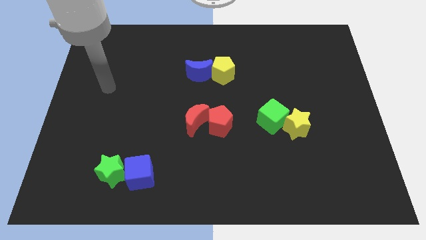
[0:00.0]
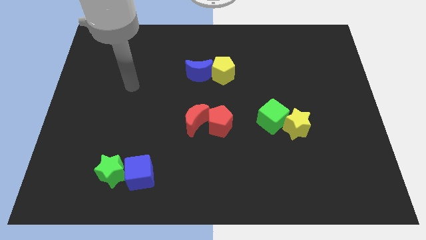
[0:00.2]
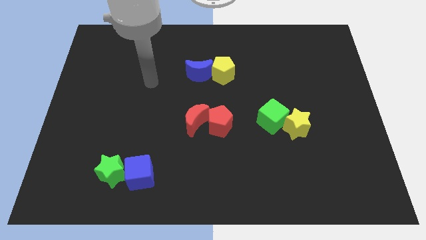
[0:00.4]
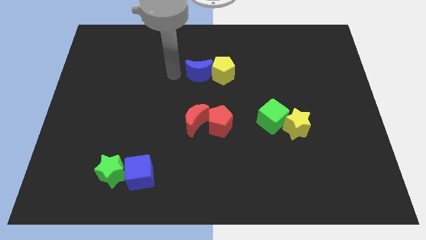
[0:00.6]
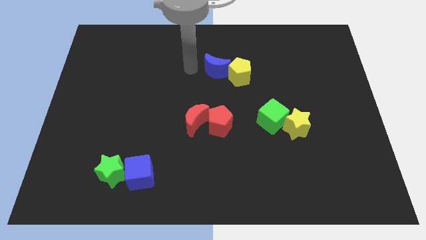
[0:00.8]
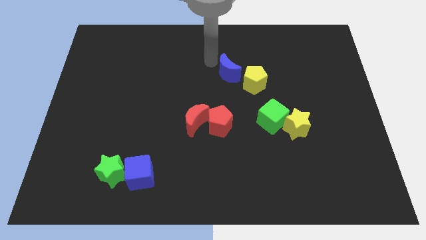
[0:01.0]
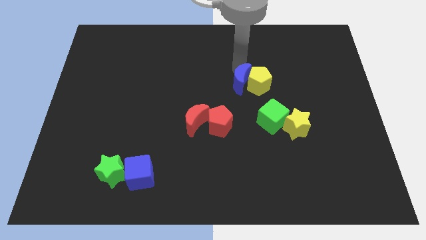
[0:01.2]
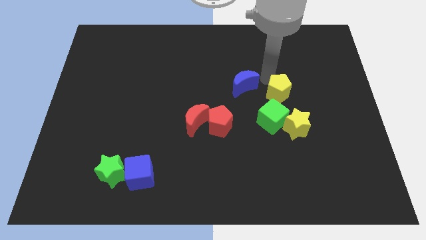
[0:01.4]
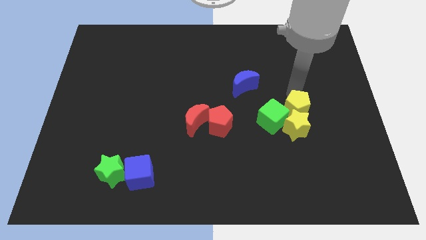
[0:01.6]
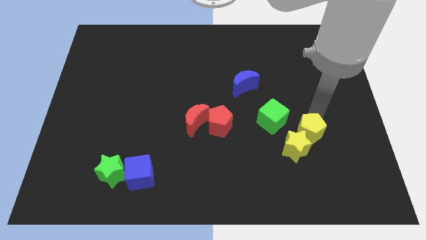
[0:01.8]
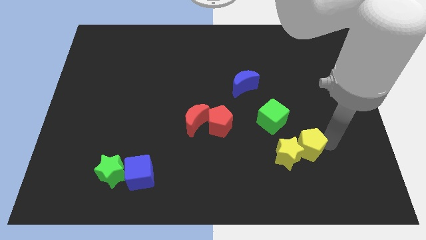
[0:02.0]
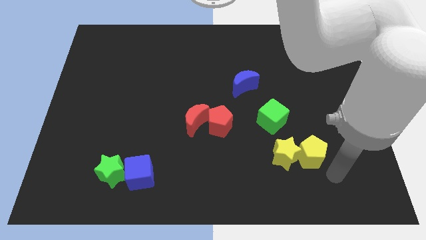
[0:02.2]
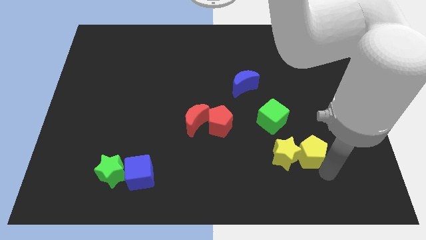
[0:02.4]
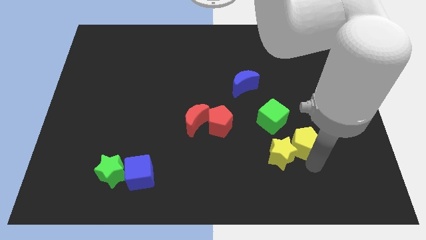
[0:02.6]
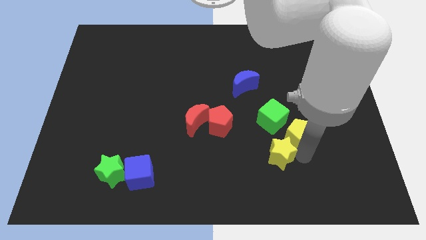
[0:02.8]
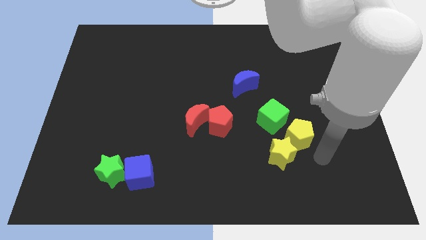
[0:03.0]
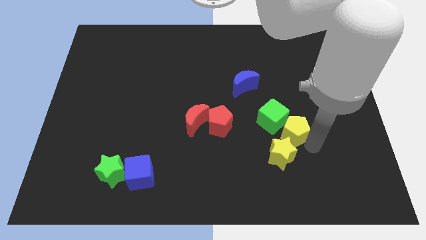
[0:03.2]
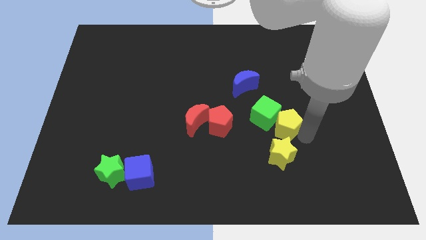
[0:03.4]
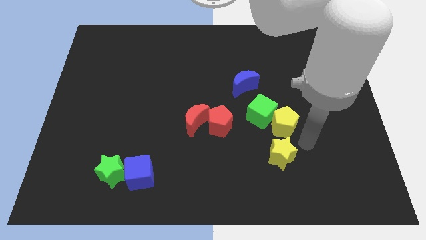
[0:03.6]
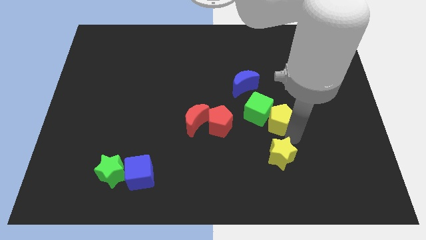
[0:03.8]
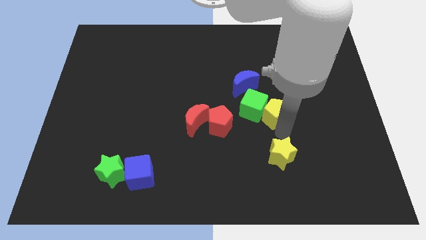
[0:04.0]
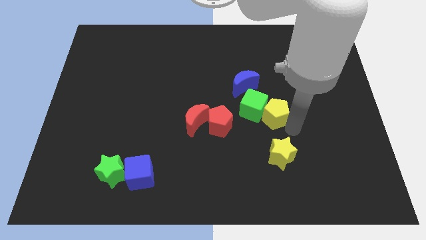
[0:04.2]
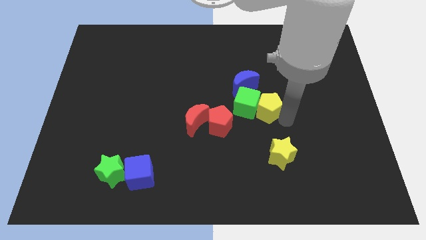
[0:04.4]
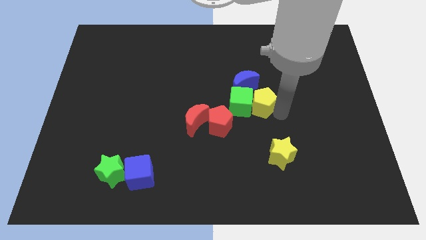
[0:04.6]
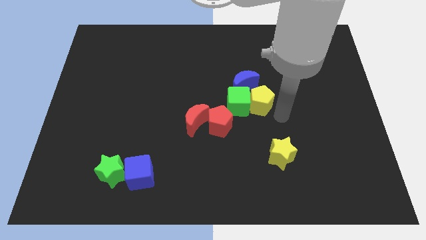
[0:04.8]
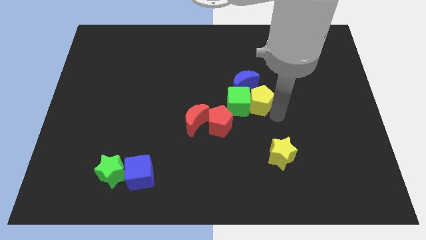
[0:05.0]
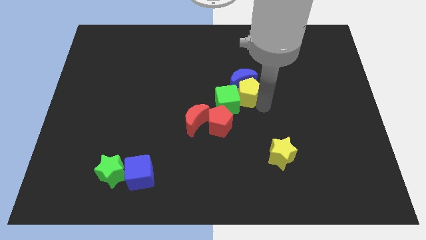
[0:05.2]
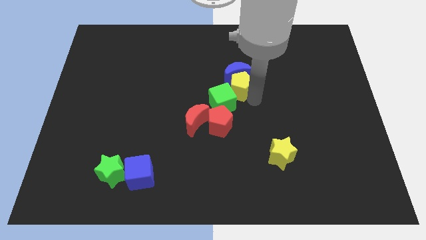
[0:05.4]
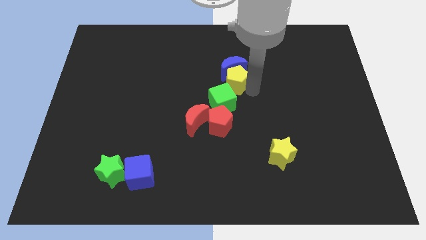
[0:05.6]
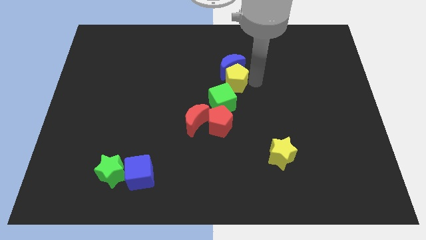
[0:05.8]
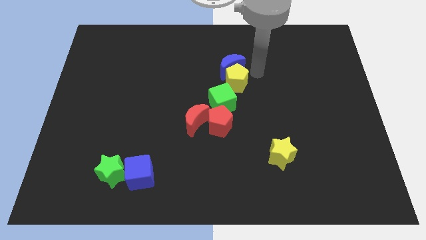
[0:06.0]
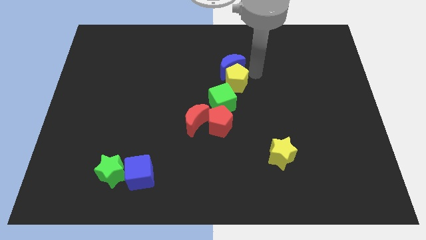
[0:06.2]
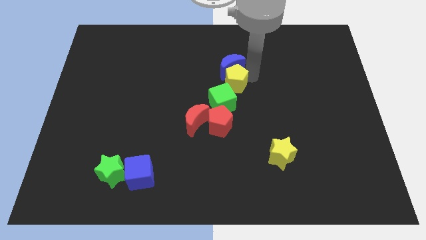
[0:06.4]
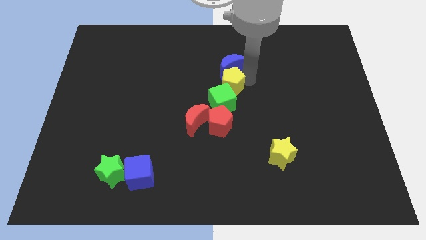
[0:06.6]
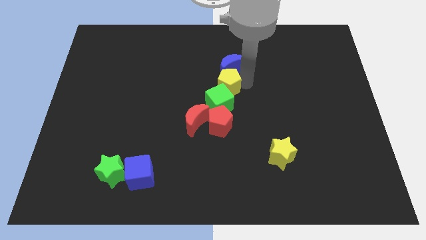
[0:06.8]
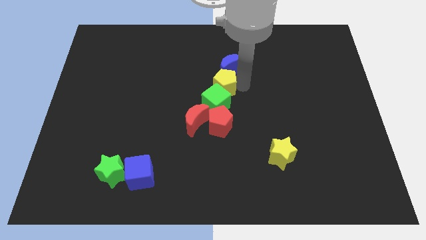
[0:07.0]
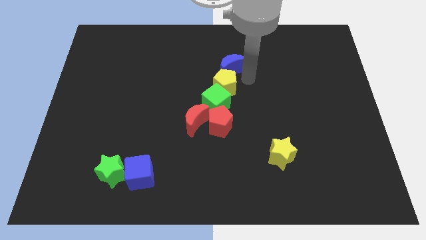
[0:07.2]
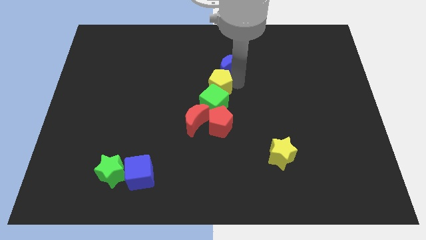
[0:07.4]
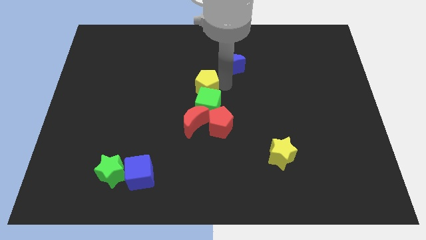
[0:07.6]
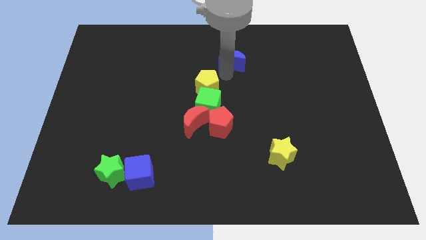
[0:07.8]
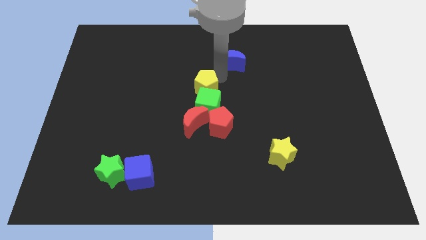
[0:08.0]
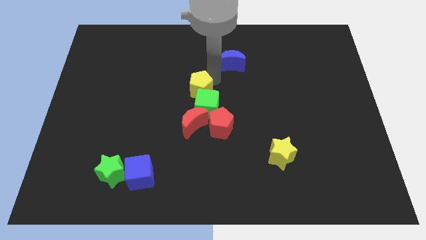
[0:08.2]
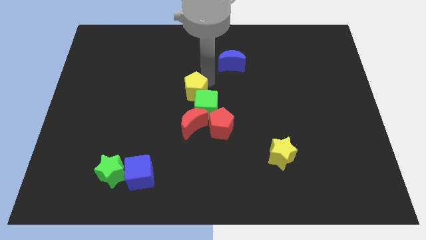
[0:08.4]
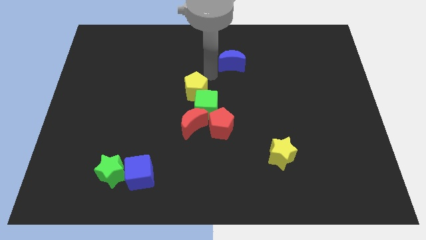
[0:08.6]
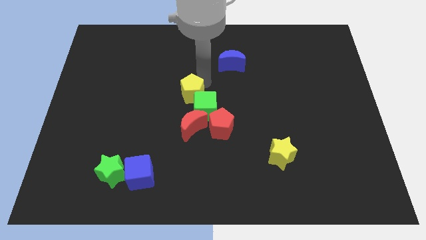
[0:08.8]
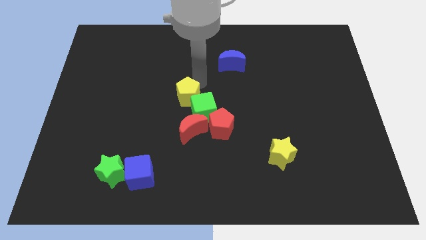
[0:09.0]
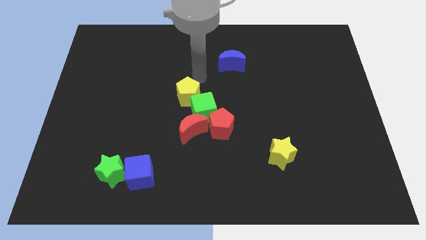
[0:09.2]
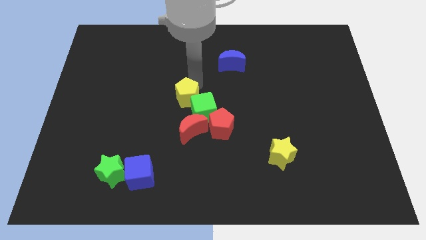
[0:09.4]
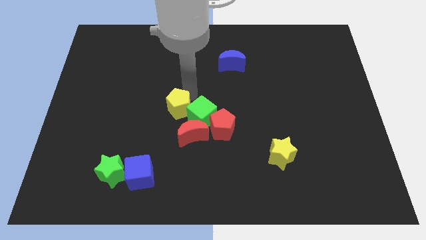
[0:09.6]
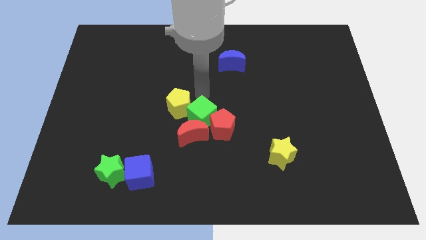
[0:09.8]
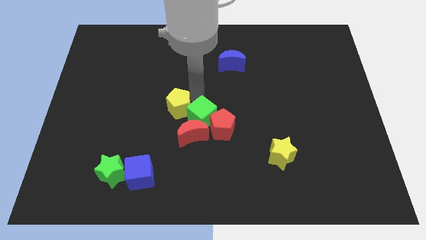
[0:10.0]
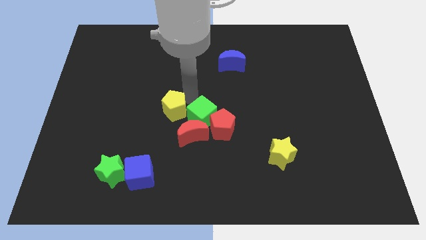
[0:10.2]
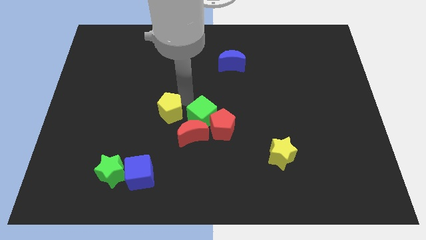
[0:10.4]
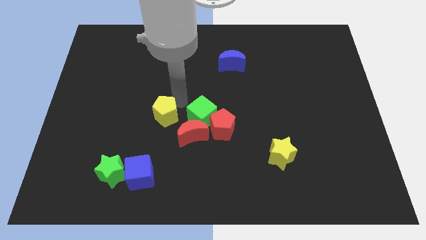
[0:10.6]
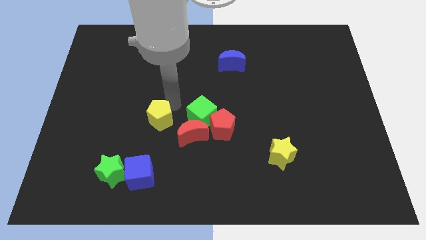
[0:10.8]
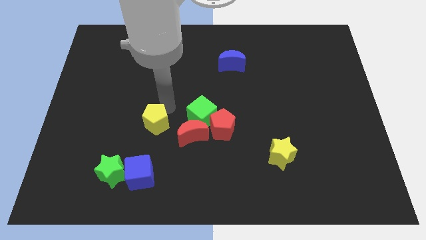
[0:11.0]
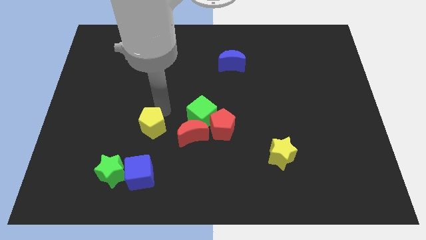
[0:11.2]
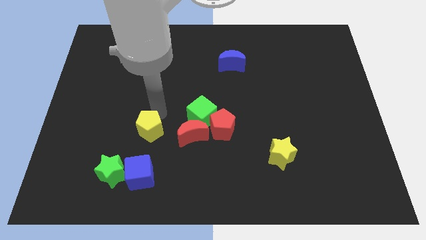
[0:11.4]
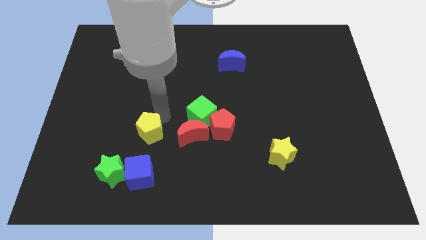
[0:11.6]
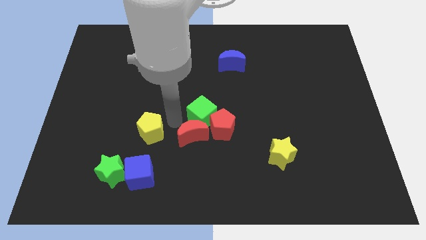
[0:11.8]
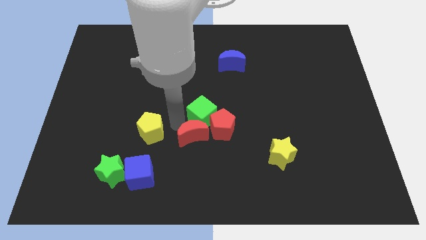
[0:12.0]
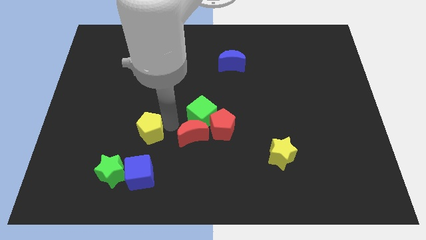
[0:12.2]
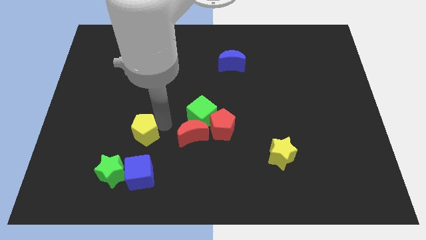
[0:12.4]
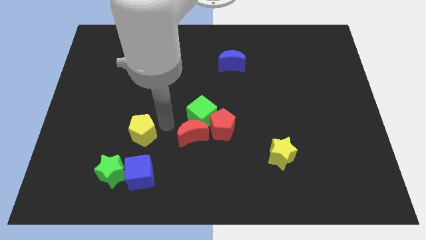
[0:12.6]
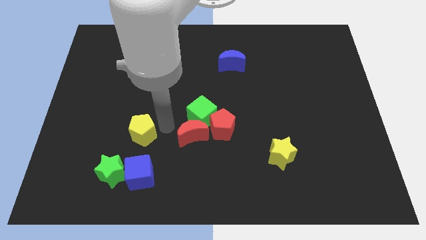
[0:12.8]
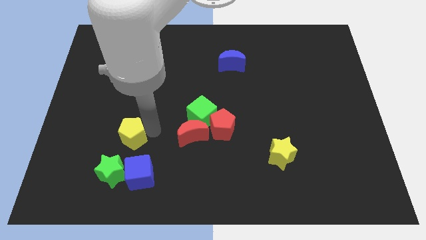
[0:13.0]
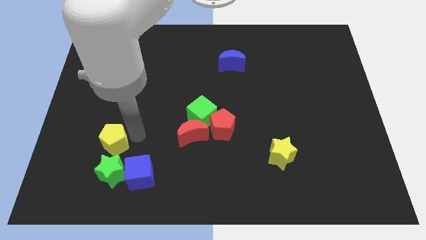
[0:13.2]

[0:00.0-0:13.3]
move the yellow pentagon diagonally up and to the left of the green star

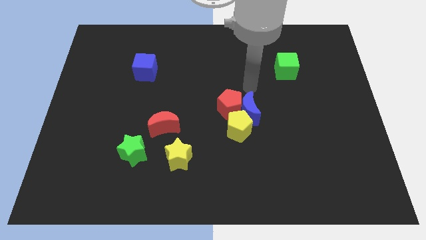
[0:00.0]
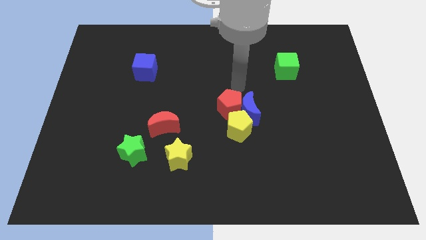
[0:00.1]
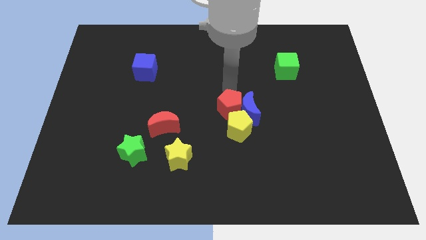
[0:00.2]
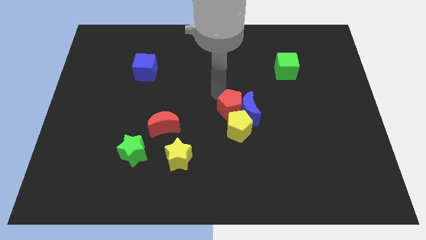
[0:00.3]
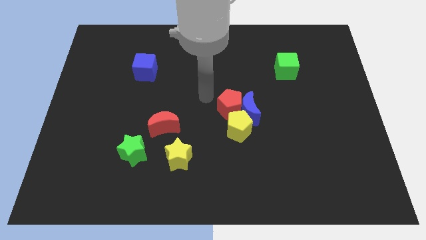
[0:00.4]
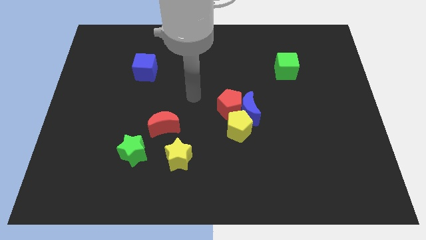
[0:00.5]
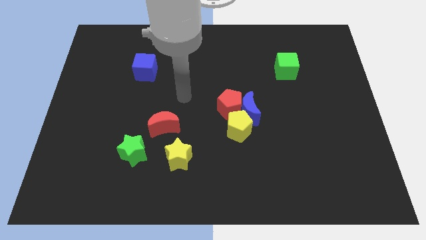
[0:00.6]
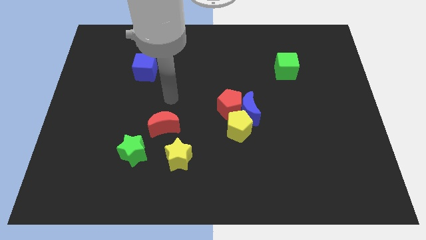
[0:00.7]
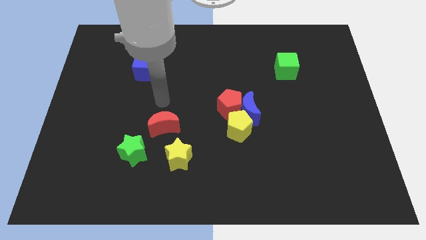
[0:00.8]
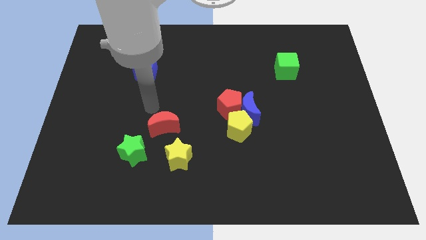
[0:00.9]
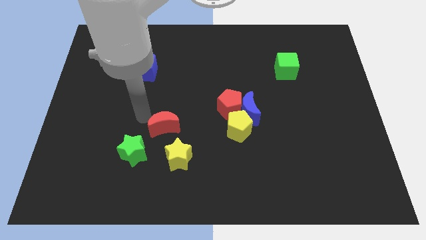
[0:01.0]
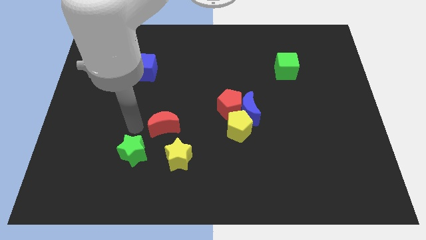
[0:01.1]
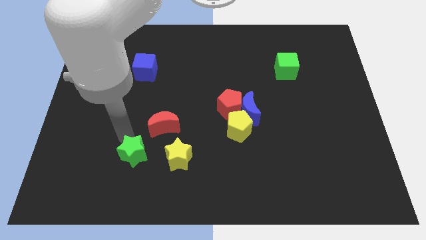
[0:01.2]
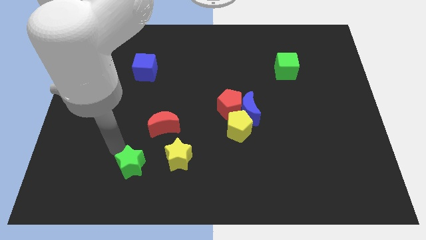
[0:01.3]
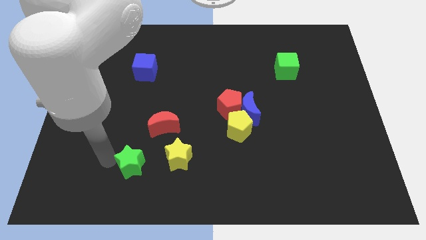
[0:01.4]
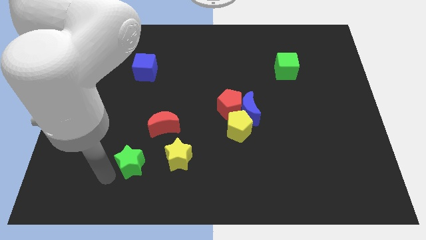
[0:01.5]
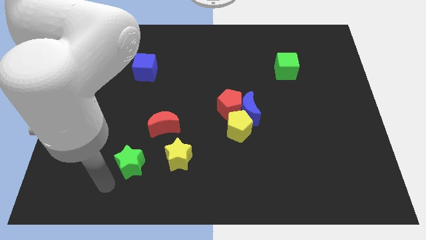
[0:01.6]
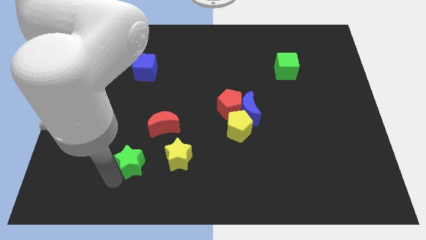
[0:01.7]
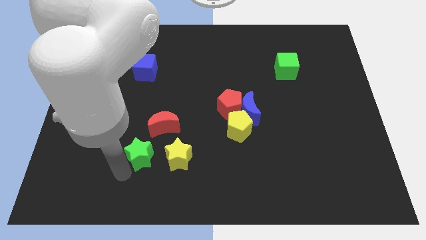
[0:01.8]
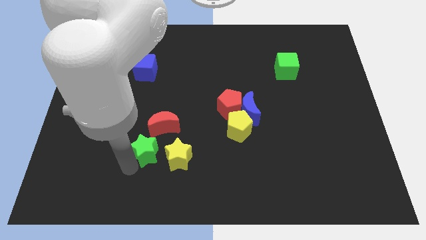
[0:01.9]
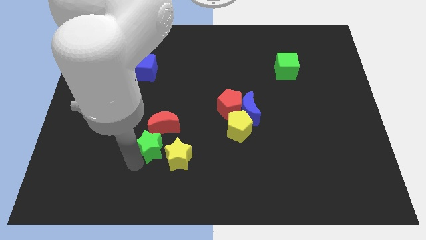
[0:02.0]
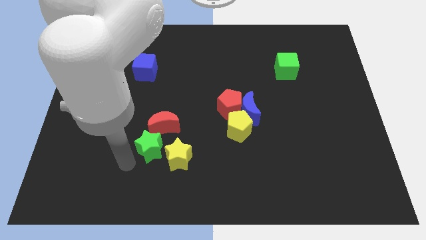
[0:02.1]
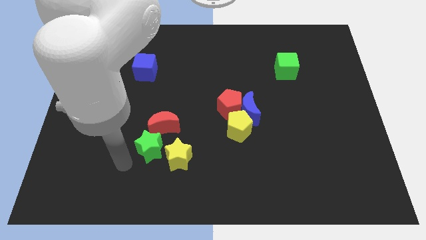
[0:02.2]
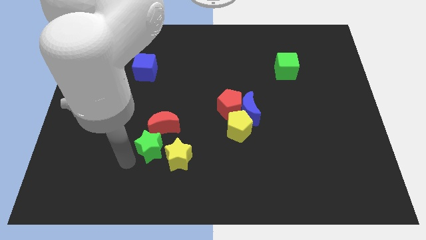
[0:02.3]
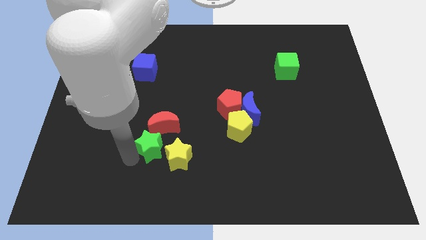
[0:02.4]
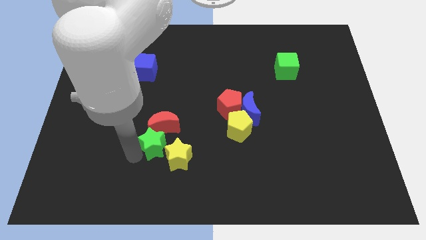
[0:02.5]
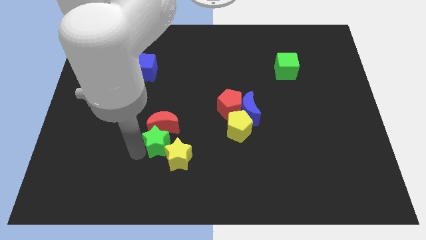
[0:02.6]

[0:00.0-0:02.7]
push the green star to the top side of the yellow star
